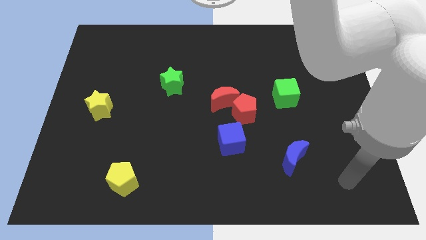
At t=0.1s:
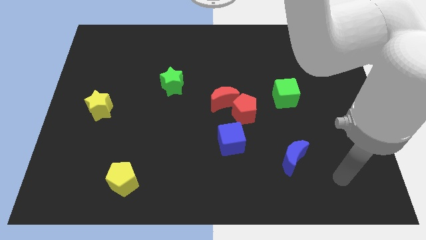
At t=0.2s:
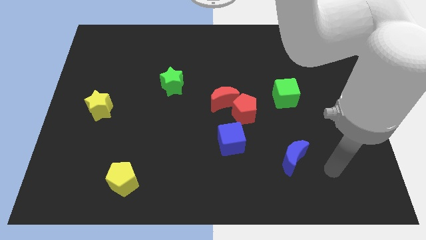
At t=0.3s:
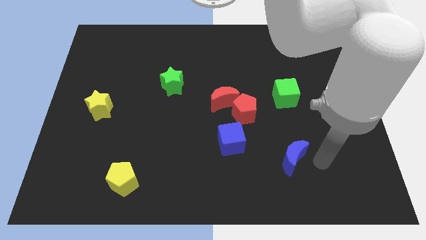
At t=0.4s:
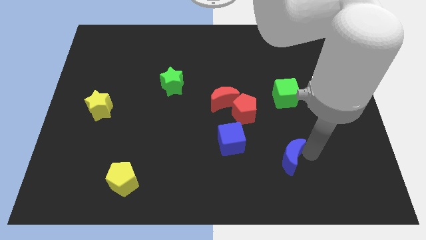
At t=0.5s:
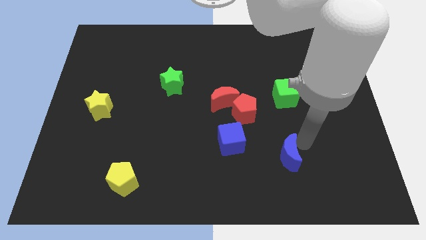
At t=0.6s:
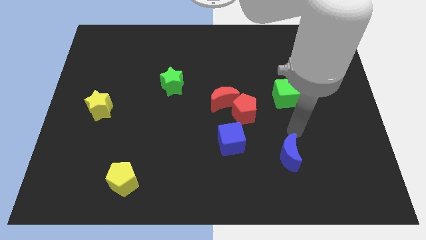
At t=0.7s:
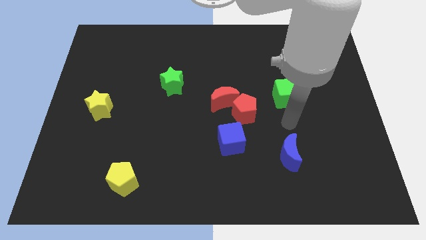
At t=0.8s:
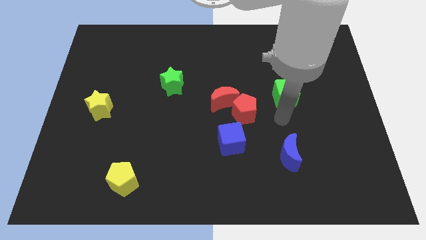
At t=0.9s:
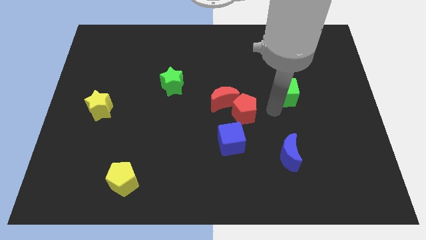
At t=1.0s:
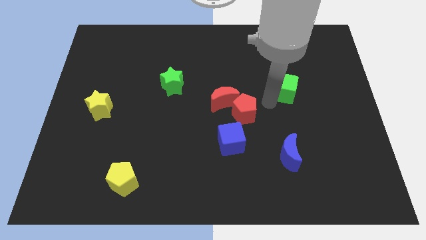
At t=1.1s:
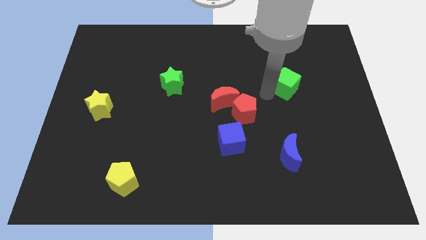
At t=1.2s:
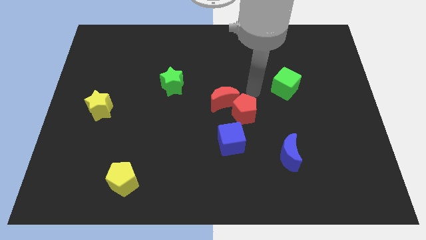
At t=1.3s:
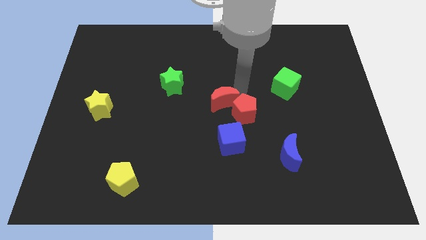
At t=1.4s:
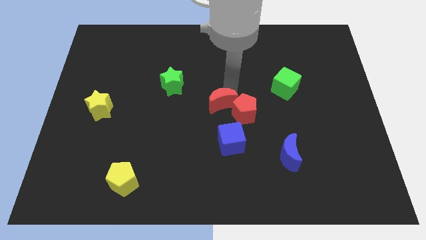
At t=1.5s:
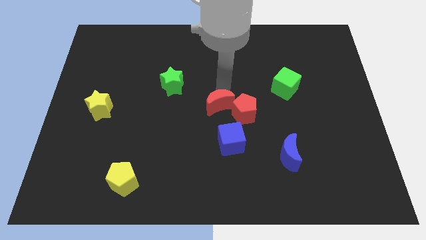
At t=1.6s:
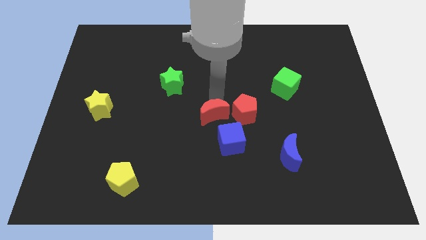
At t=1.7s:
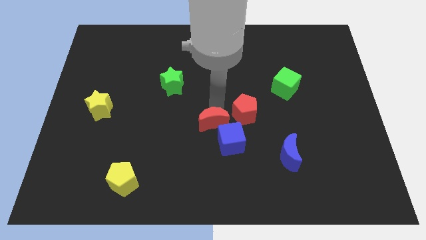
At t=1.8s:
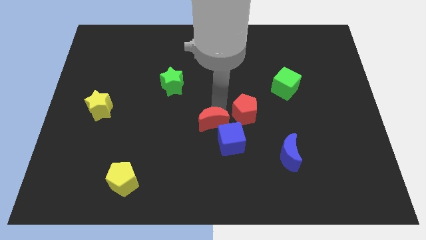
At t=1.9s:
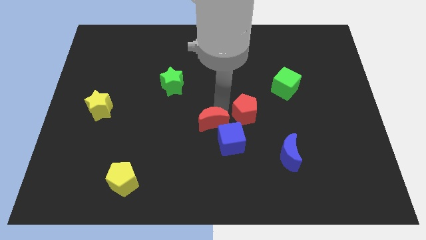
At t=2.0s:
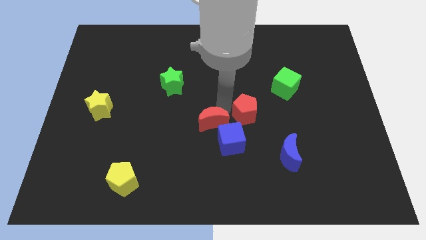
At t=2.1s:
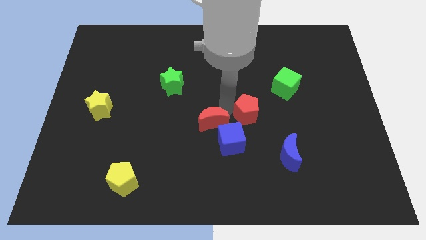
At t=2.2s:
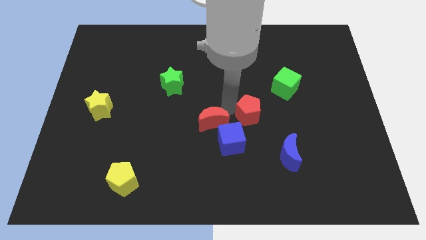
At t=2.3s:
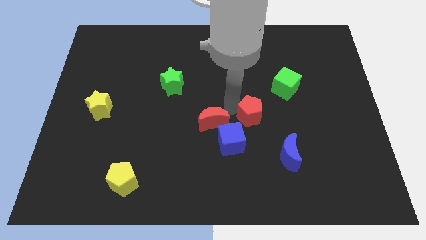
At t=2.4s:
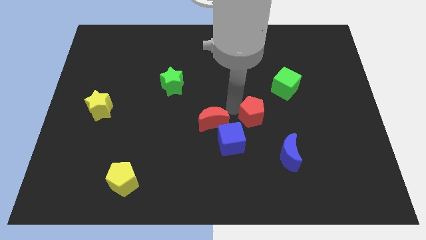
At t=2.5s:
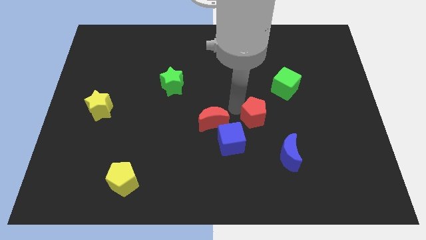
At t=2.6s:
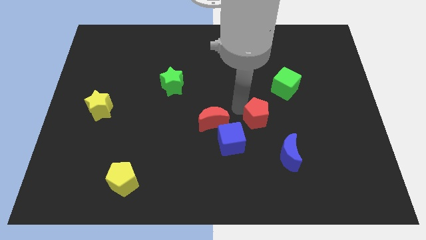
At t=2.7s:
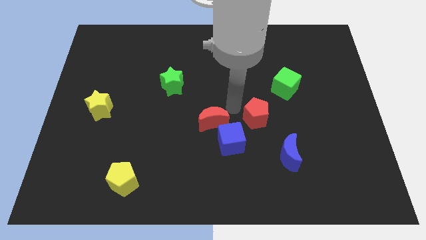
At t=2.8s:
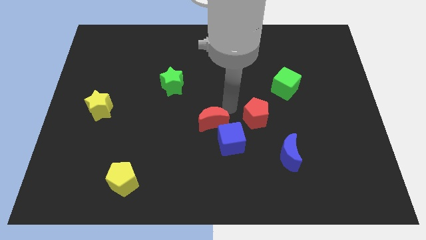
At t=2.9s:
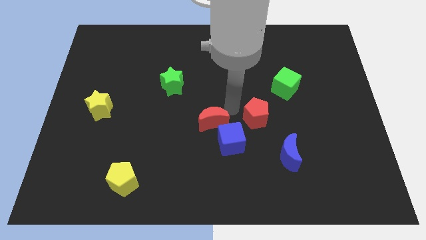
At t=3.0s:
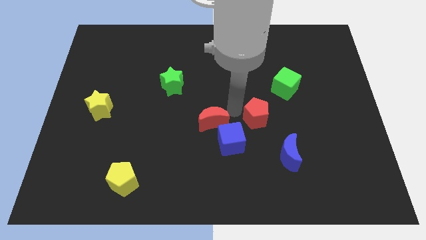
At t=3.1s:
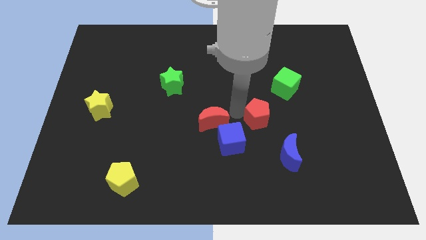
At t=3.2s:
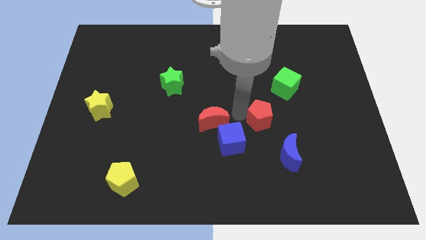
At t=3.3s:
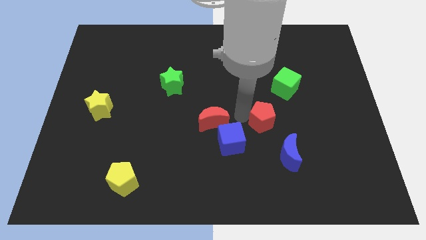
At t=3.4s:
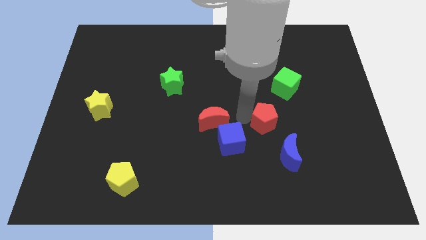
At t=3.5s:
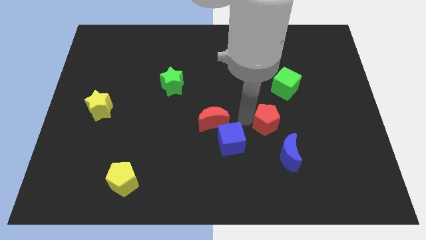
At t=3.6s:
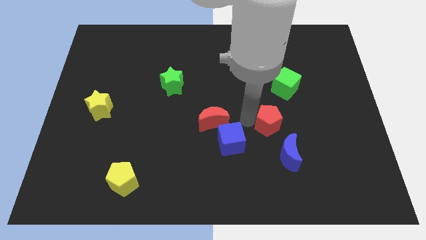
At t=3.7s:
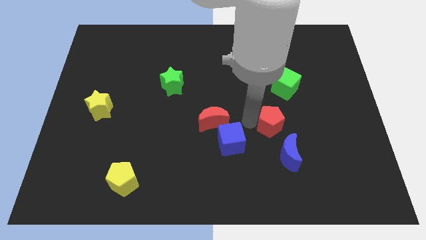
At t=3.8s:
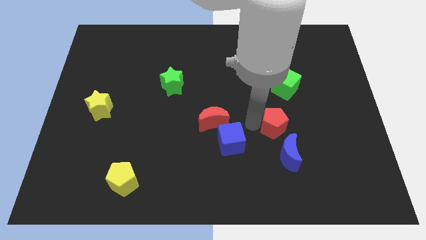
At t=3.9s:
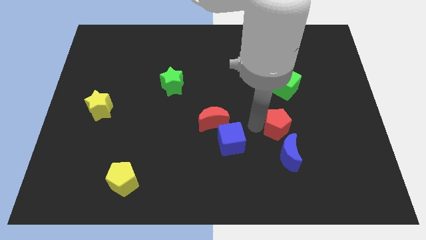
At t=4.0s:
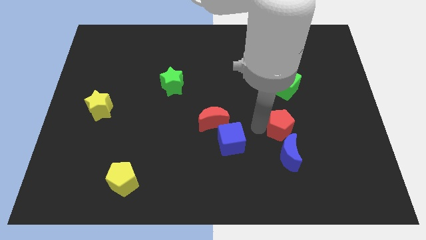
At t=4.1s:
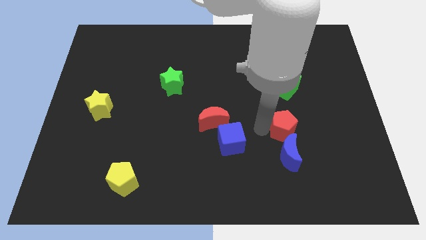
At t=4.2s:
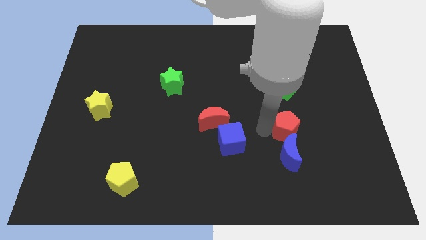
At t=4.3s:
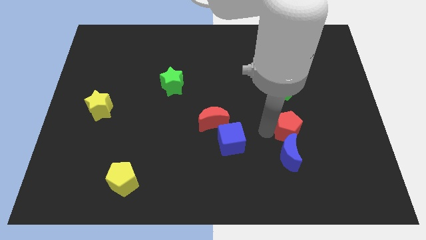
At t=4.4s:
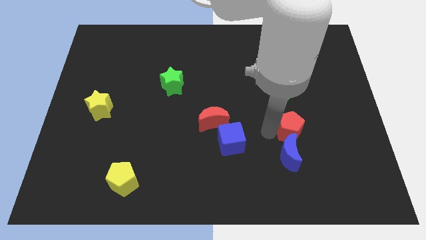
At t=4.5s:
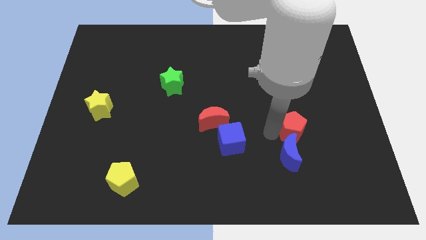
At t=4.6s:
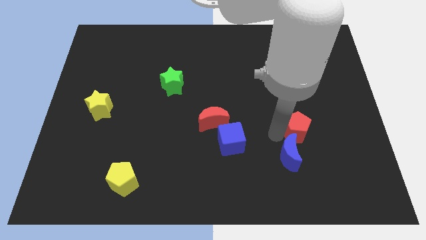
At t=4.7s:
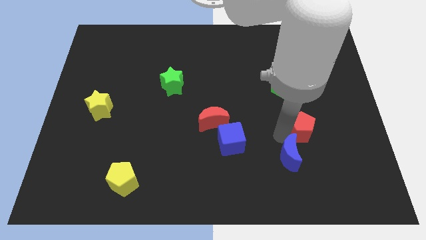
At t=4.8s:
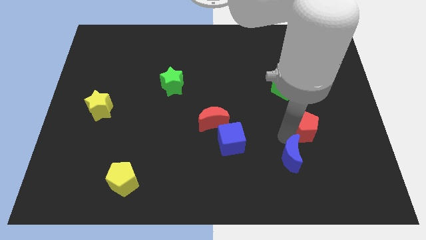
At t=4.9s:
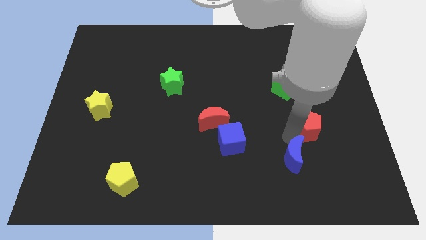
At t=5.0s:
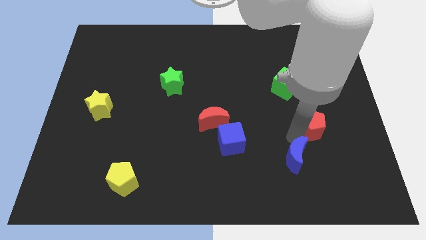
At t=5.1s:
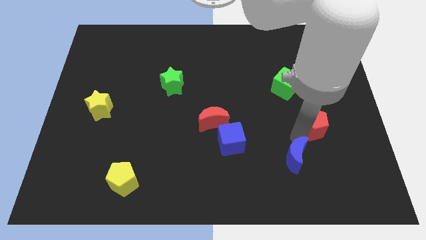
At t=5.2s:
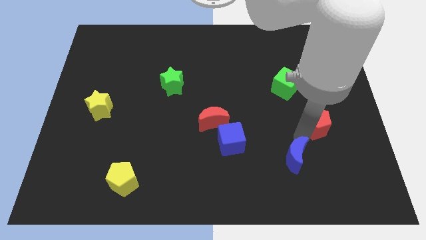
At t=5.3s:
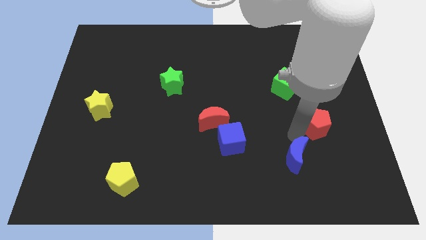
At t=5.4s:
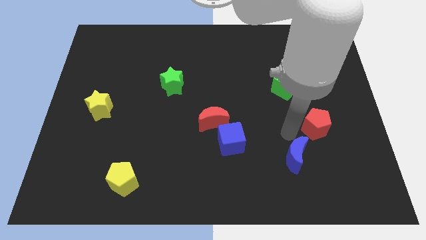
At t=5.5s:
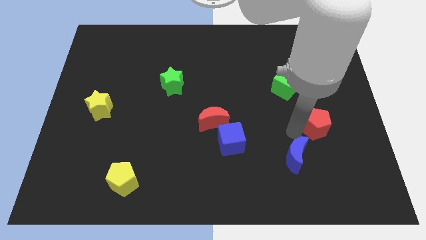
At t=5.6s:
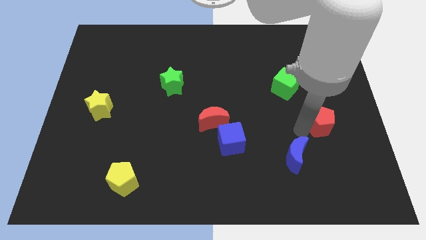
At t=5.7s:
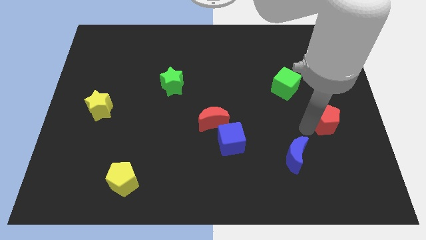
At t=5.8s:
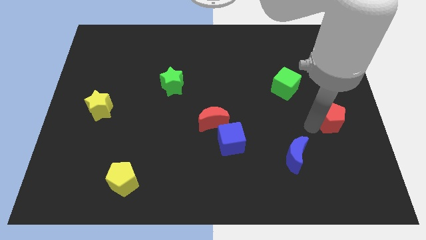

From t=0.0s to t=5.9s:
slide the red pentagon to the center right

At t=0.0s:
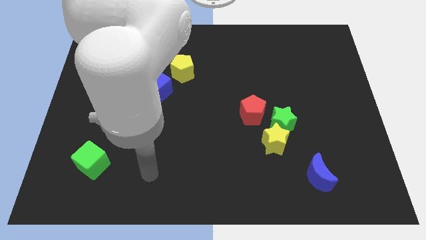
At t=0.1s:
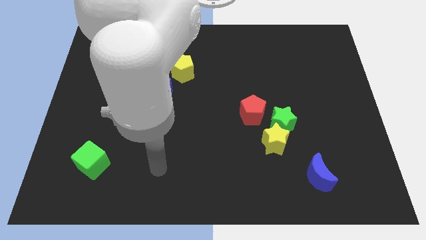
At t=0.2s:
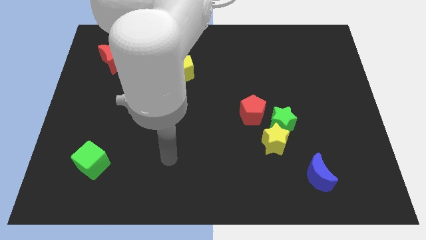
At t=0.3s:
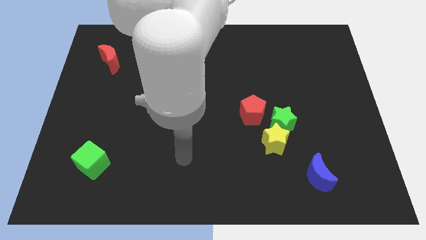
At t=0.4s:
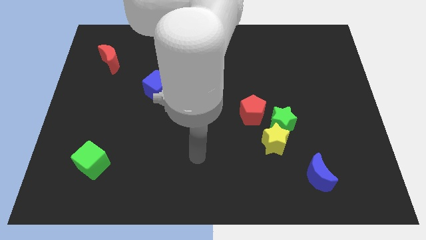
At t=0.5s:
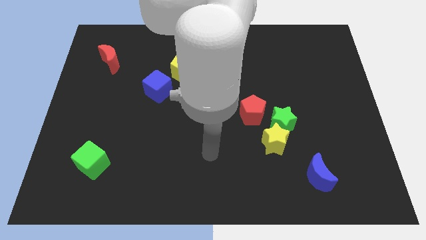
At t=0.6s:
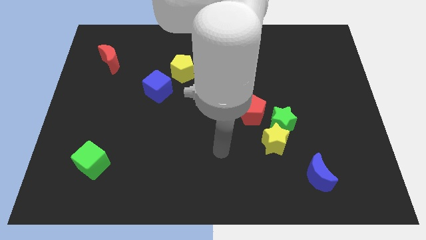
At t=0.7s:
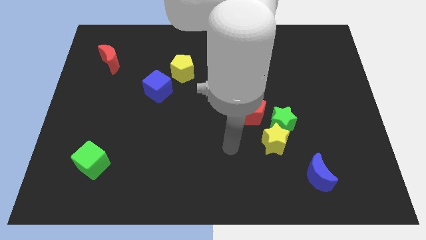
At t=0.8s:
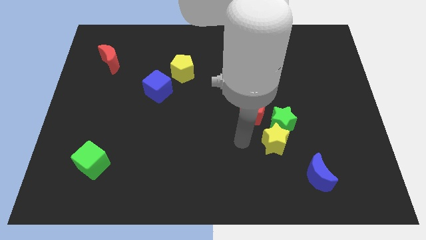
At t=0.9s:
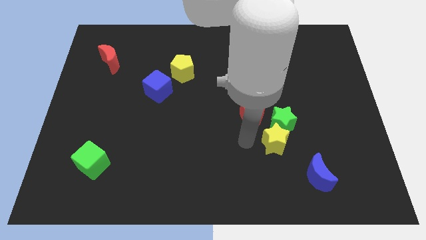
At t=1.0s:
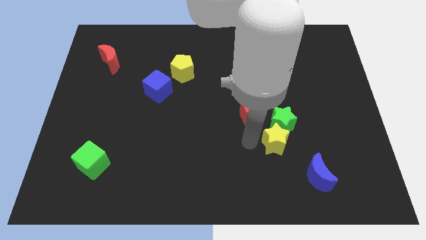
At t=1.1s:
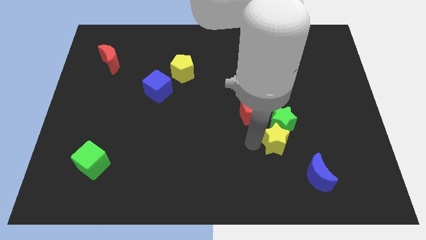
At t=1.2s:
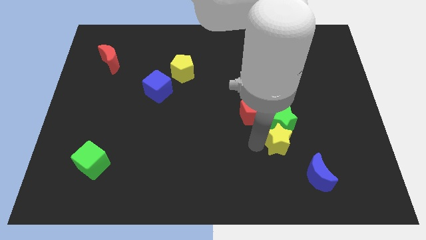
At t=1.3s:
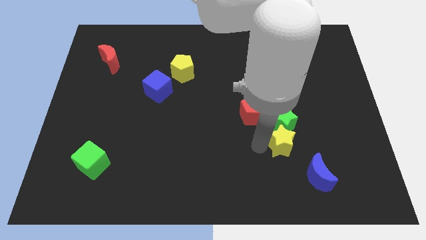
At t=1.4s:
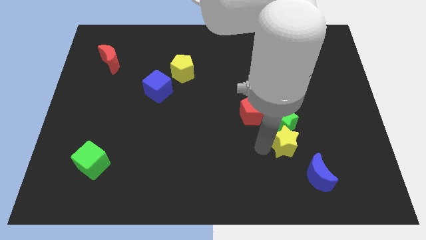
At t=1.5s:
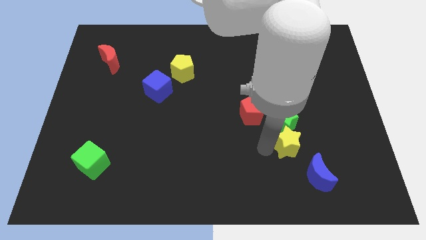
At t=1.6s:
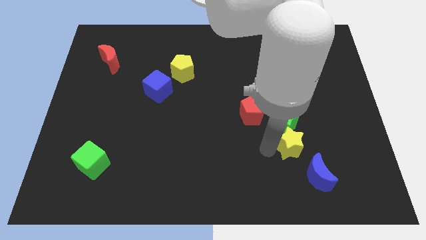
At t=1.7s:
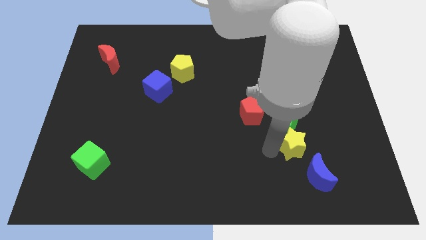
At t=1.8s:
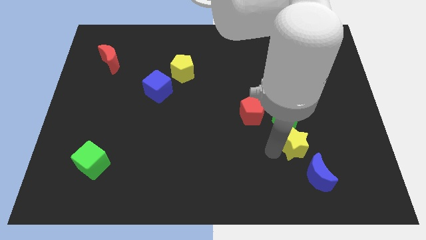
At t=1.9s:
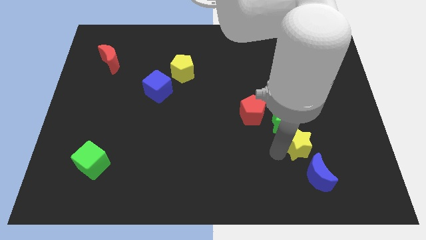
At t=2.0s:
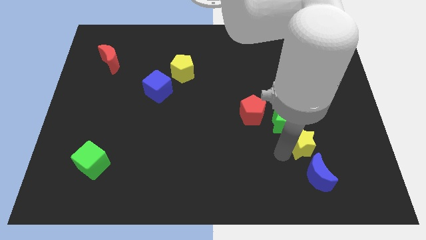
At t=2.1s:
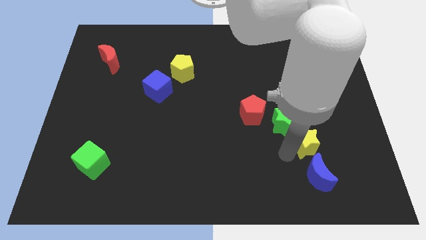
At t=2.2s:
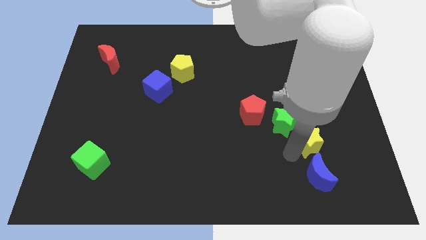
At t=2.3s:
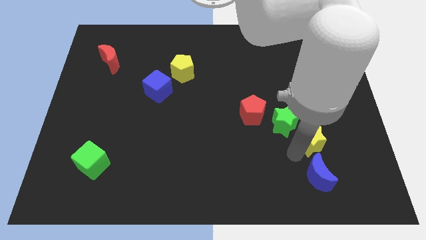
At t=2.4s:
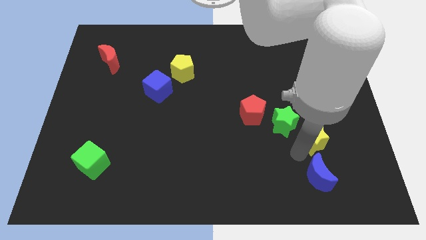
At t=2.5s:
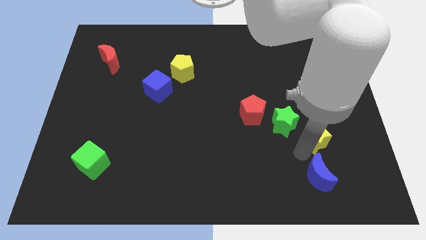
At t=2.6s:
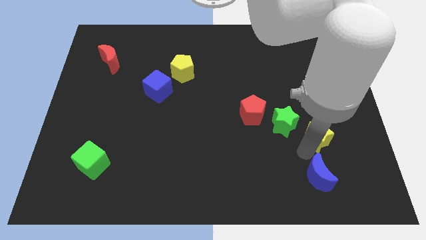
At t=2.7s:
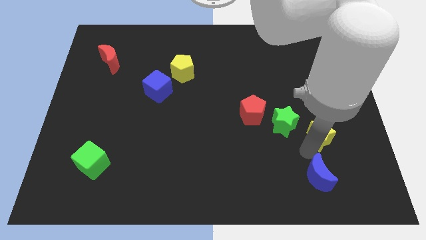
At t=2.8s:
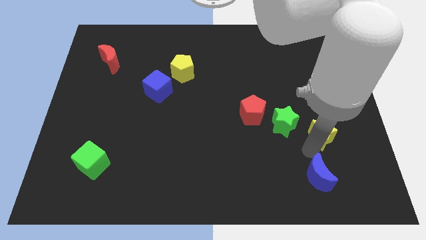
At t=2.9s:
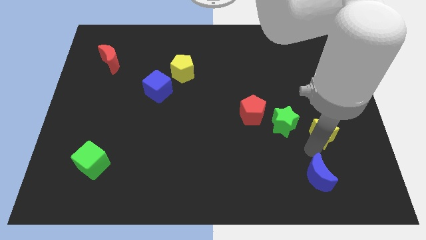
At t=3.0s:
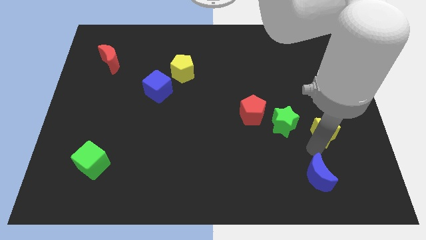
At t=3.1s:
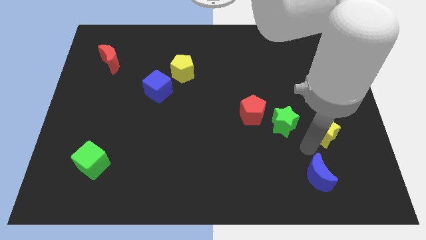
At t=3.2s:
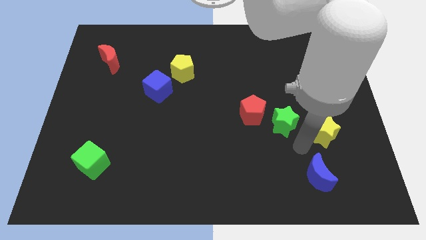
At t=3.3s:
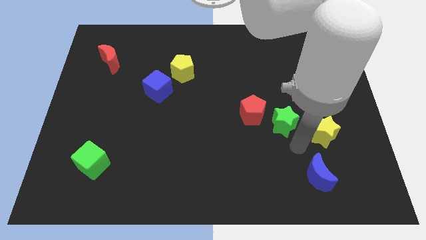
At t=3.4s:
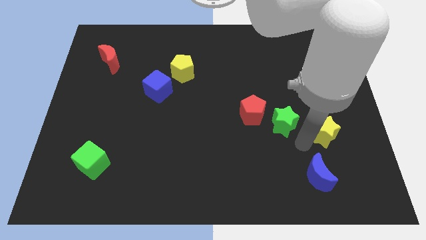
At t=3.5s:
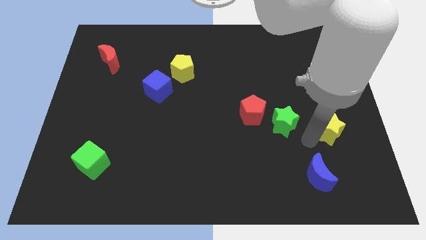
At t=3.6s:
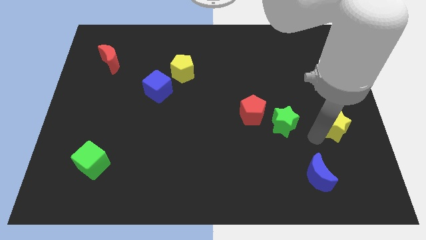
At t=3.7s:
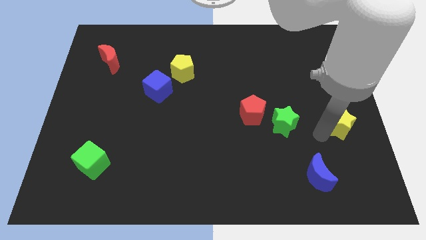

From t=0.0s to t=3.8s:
push the yellow star to the right side of the board
